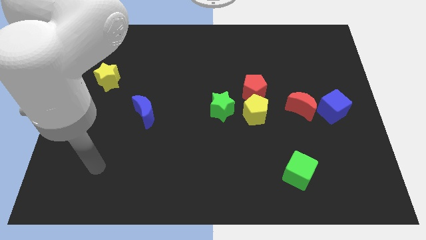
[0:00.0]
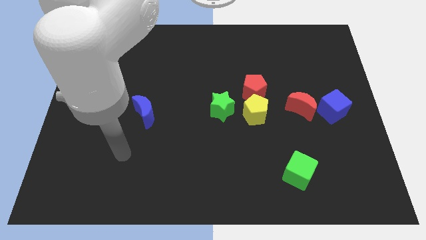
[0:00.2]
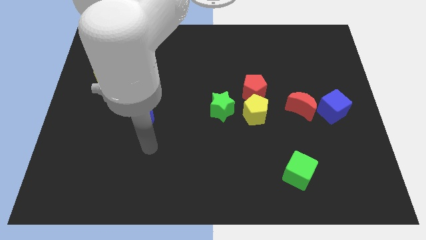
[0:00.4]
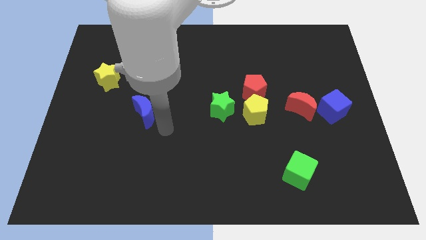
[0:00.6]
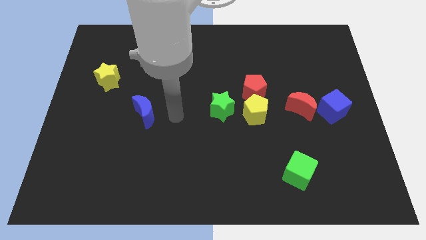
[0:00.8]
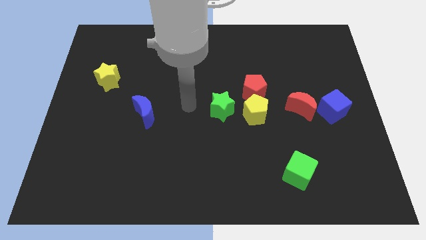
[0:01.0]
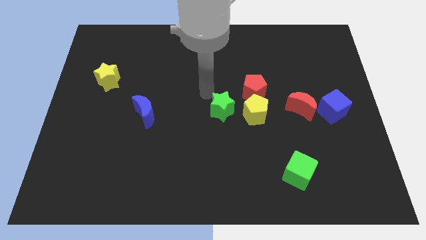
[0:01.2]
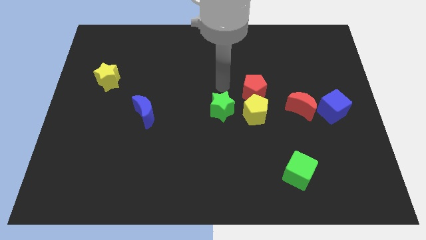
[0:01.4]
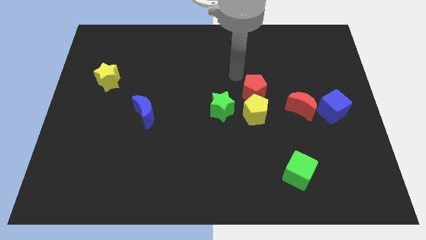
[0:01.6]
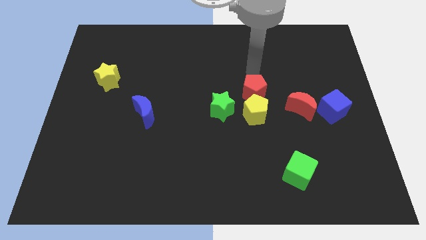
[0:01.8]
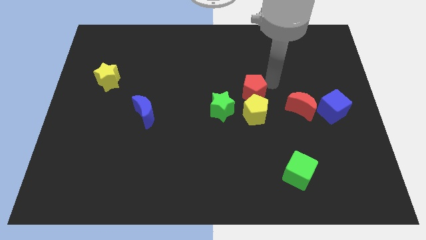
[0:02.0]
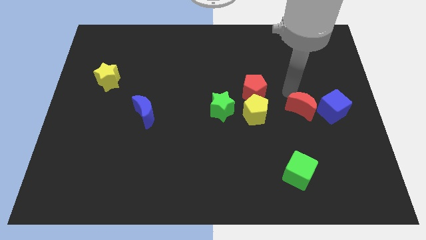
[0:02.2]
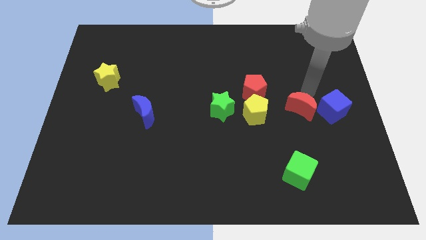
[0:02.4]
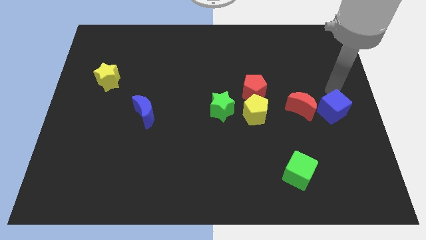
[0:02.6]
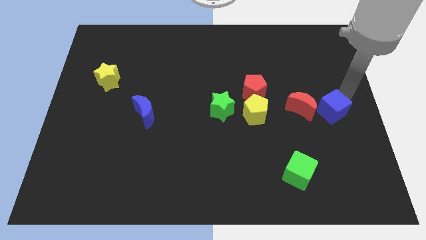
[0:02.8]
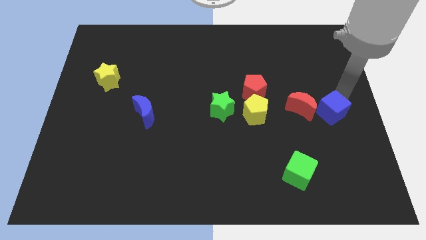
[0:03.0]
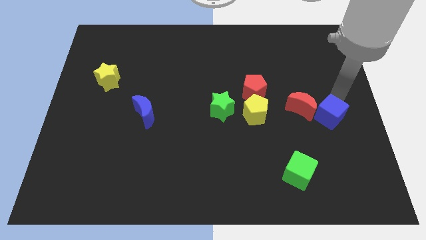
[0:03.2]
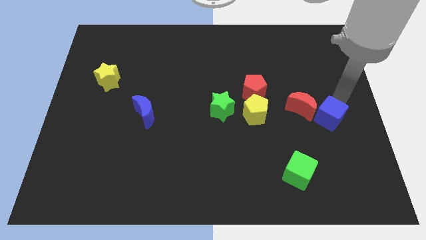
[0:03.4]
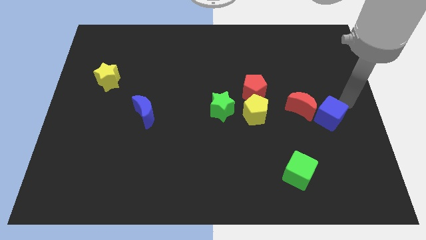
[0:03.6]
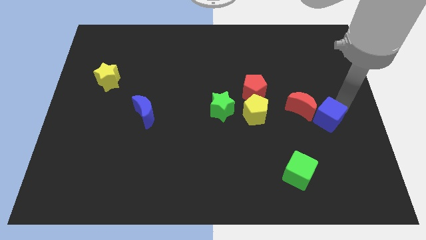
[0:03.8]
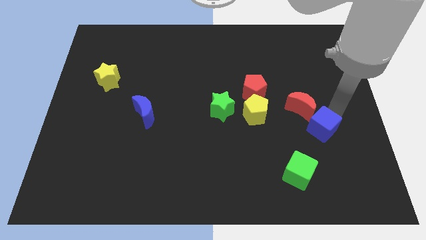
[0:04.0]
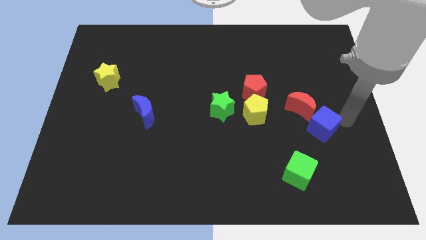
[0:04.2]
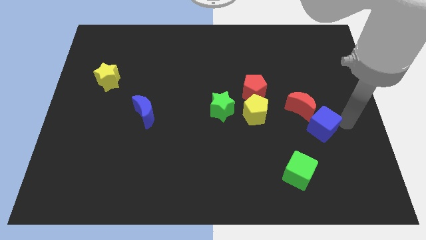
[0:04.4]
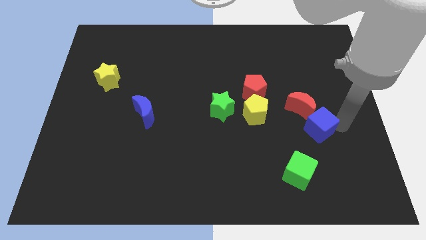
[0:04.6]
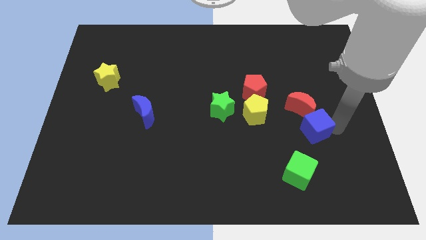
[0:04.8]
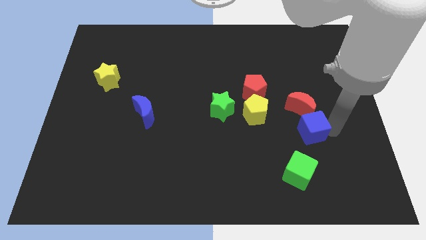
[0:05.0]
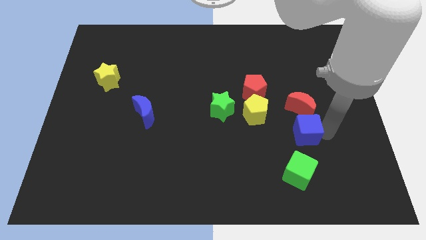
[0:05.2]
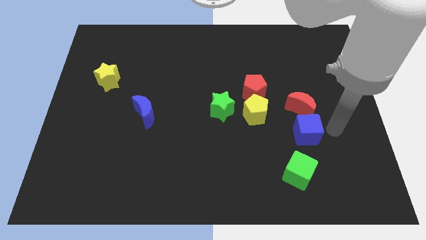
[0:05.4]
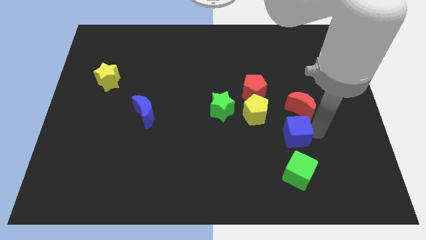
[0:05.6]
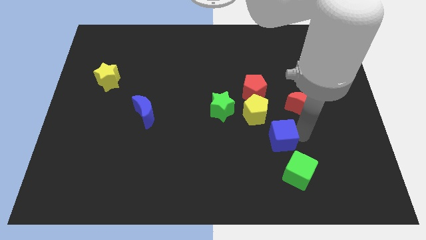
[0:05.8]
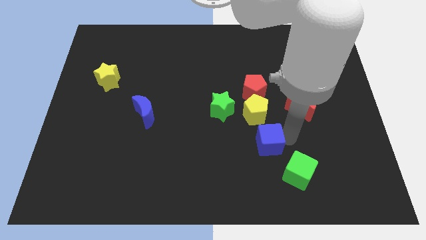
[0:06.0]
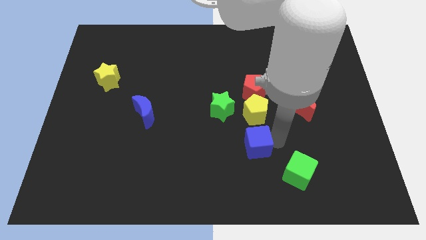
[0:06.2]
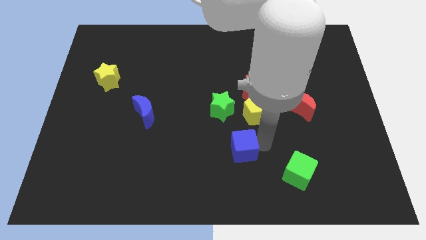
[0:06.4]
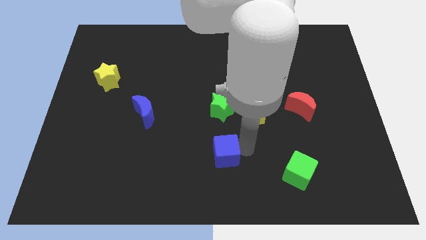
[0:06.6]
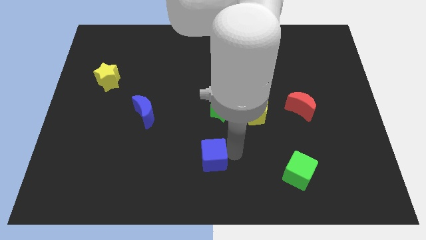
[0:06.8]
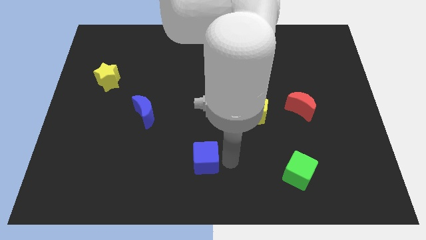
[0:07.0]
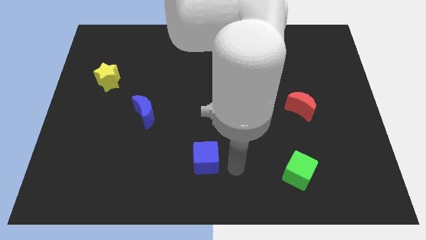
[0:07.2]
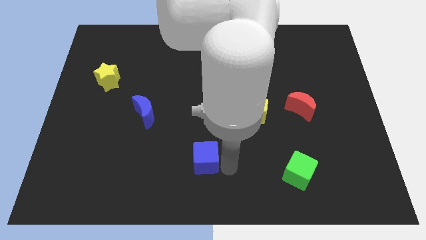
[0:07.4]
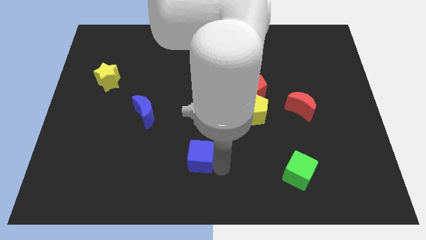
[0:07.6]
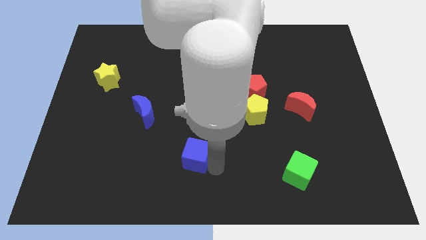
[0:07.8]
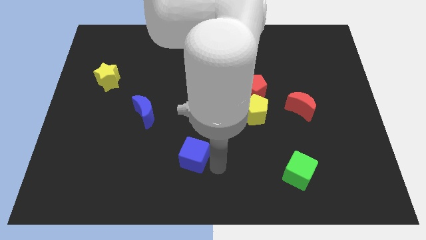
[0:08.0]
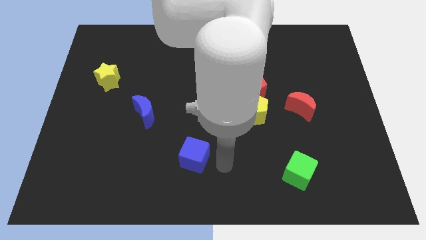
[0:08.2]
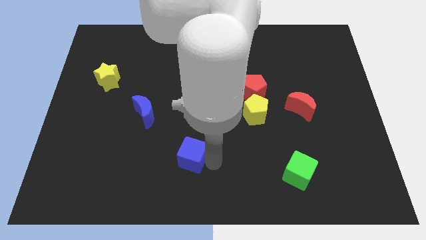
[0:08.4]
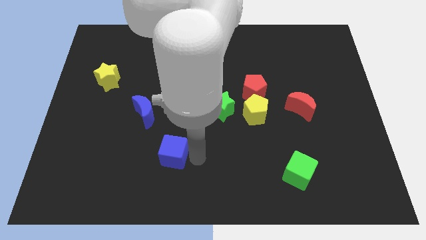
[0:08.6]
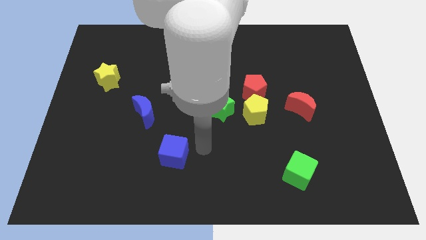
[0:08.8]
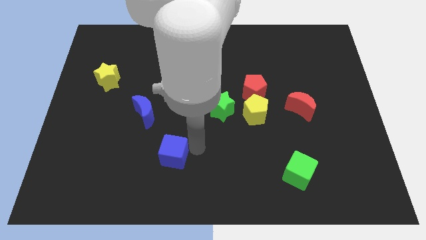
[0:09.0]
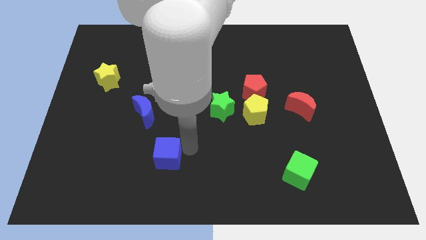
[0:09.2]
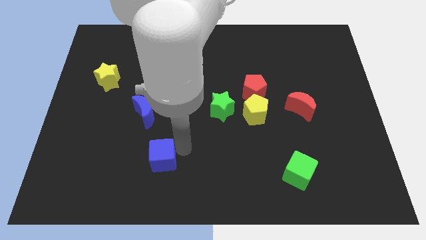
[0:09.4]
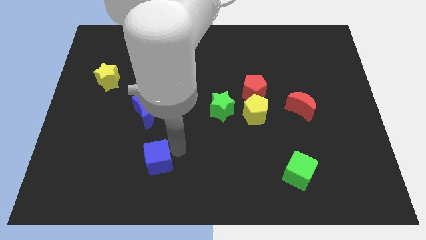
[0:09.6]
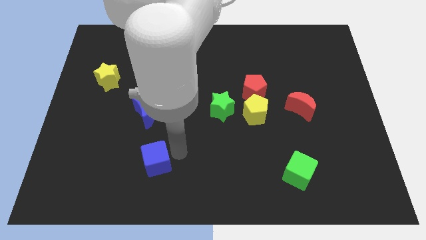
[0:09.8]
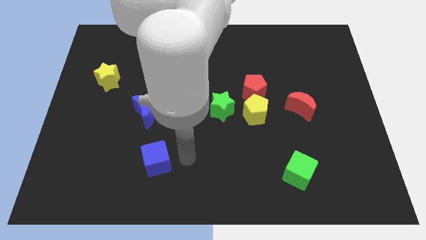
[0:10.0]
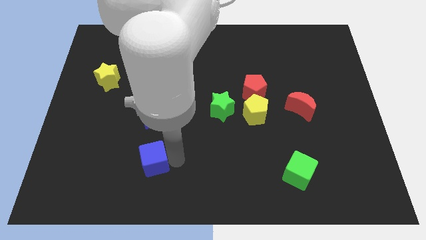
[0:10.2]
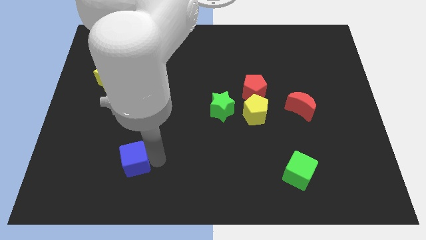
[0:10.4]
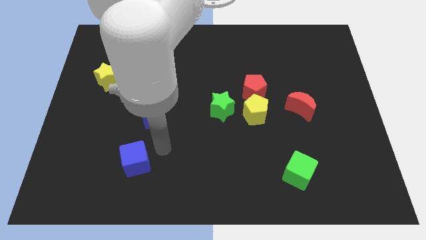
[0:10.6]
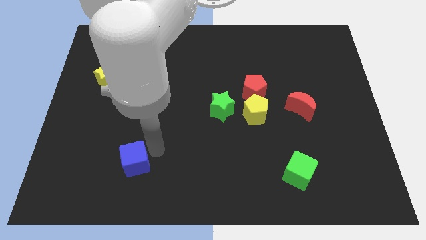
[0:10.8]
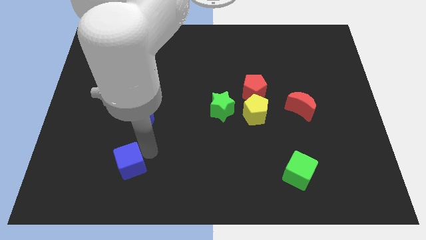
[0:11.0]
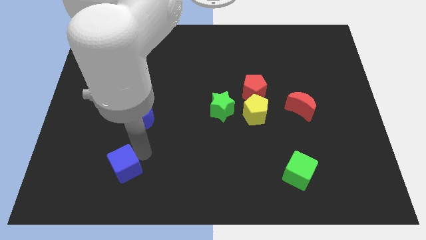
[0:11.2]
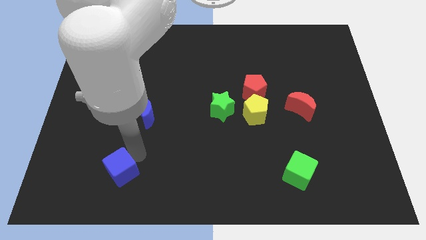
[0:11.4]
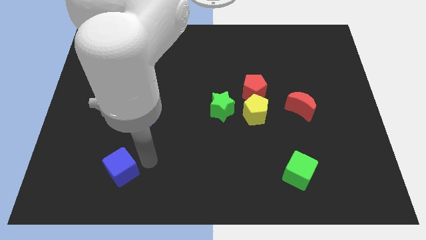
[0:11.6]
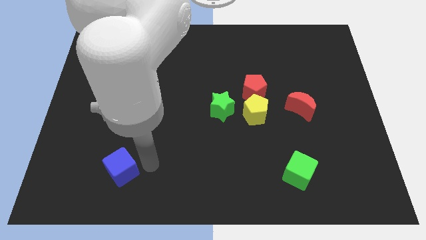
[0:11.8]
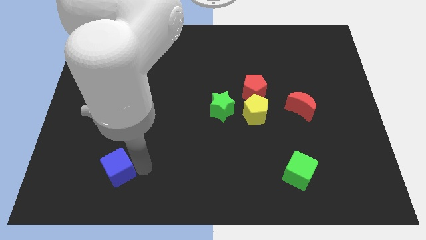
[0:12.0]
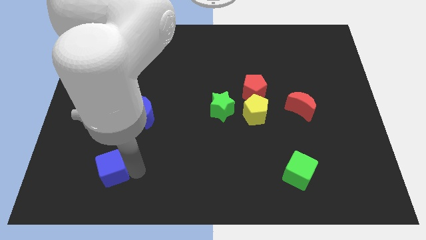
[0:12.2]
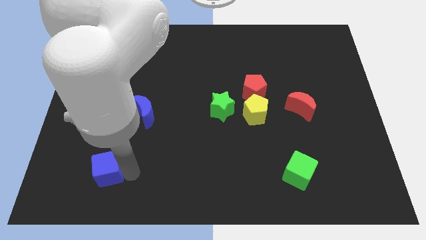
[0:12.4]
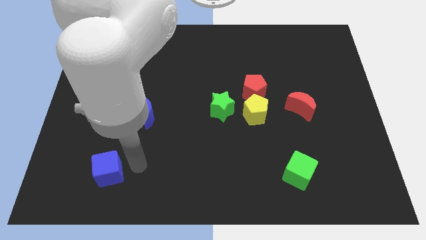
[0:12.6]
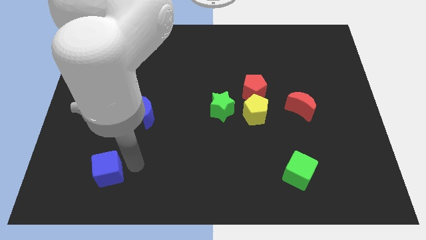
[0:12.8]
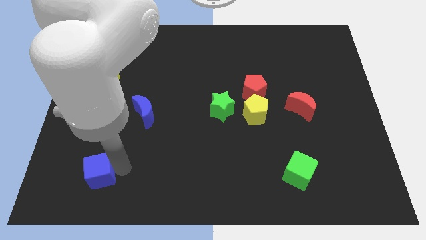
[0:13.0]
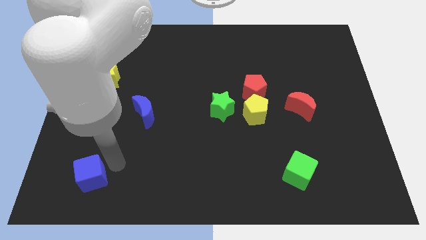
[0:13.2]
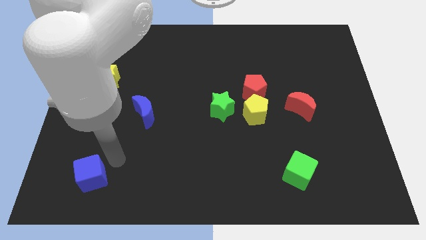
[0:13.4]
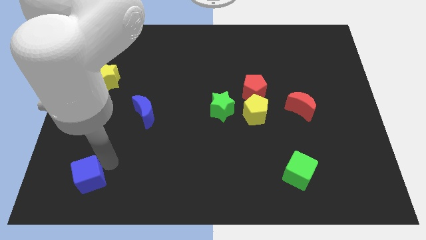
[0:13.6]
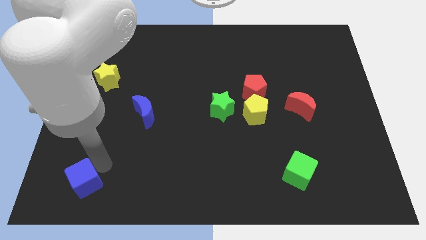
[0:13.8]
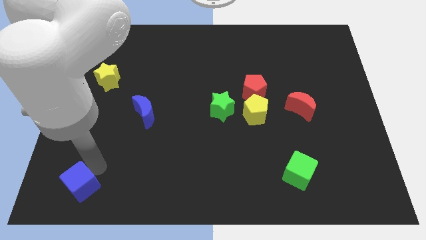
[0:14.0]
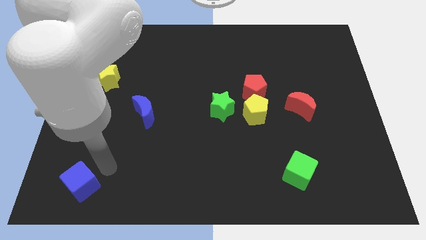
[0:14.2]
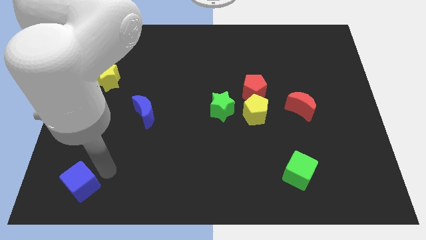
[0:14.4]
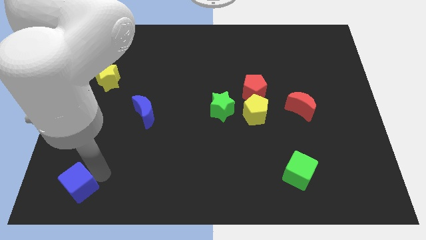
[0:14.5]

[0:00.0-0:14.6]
put the blue cube to the bottom left corner

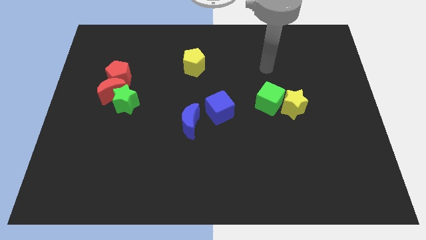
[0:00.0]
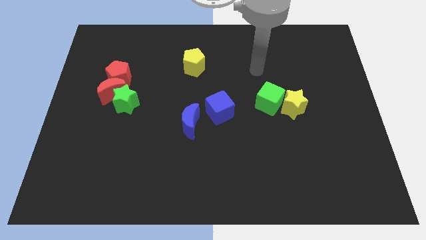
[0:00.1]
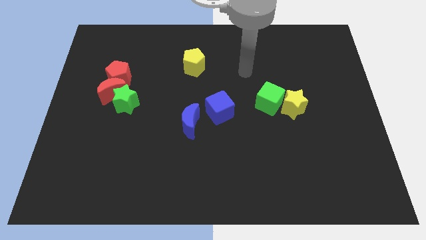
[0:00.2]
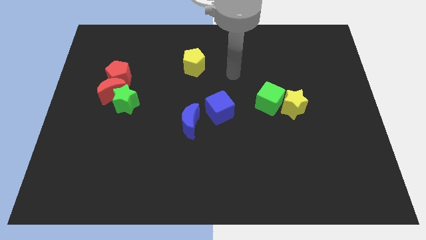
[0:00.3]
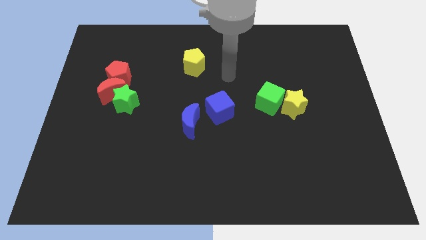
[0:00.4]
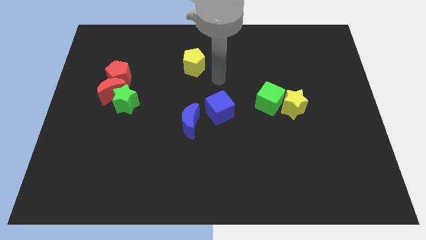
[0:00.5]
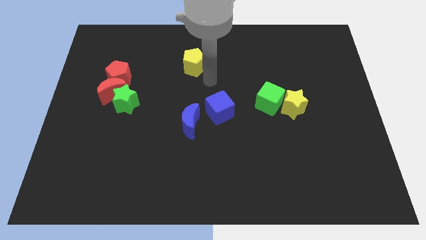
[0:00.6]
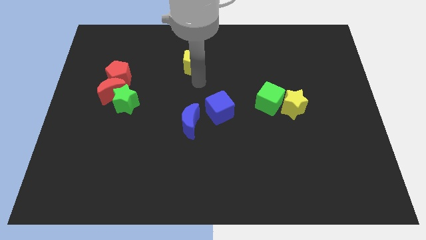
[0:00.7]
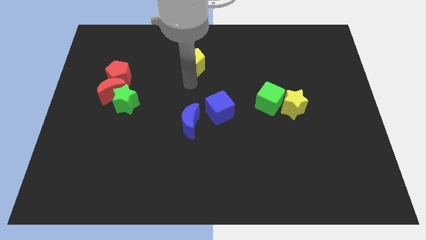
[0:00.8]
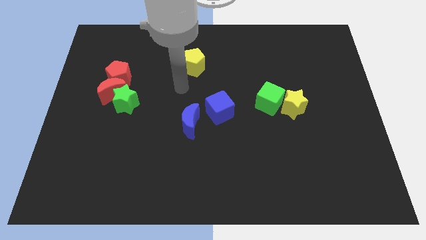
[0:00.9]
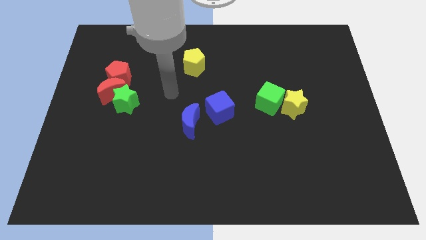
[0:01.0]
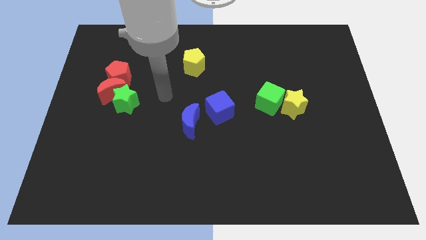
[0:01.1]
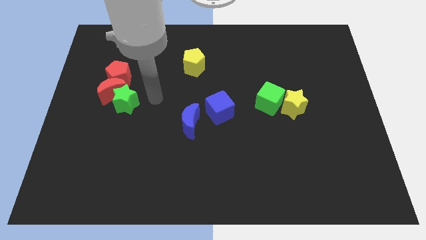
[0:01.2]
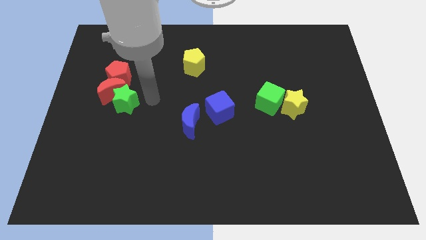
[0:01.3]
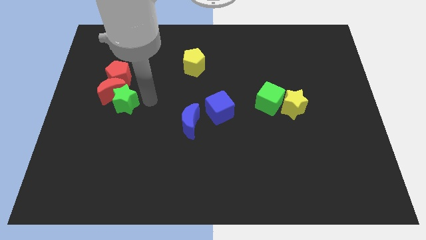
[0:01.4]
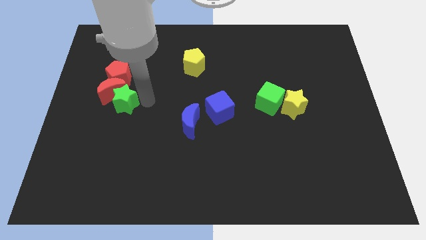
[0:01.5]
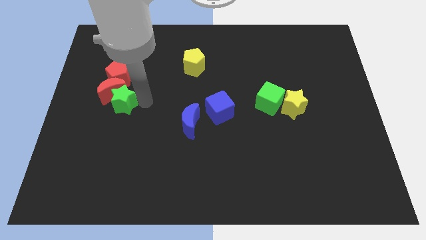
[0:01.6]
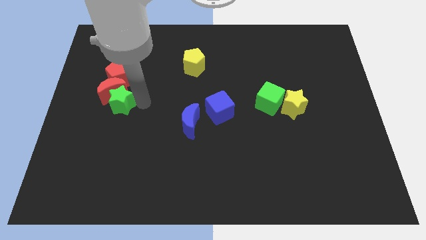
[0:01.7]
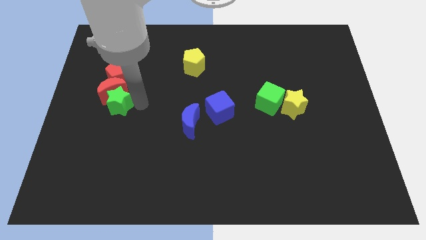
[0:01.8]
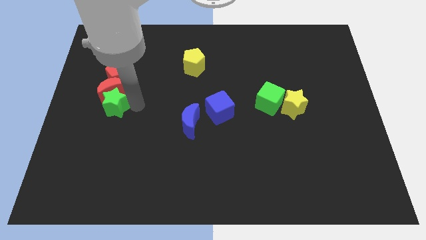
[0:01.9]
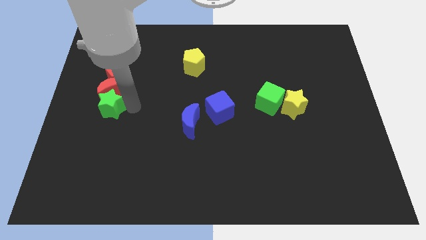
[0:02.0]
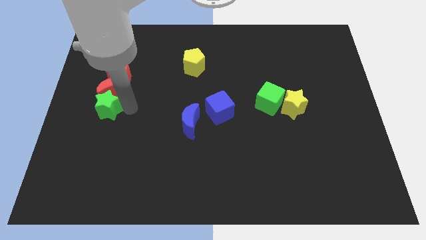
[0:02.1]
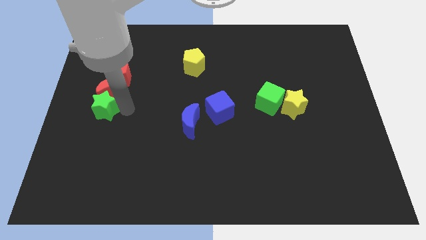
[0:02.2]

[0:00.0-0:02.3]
slide the green star to the center left
